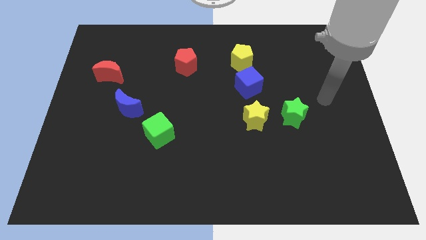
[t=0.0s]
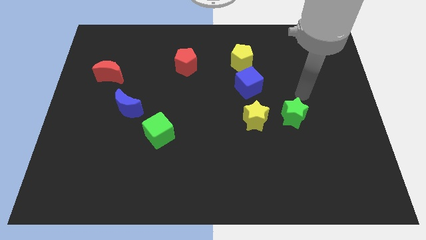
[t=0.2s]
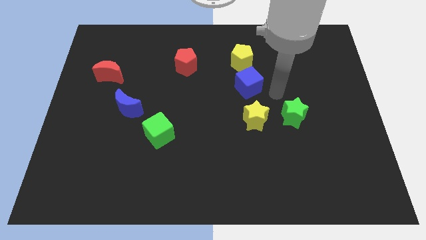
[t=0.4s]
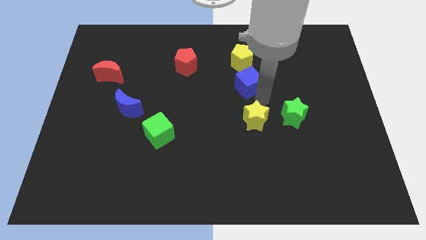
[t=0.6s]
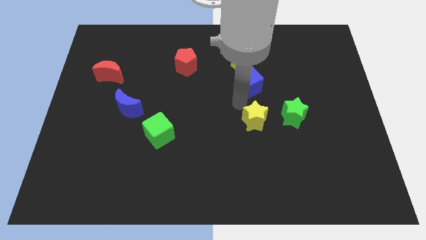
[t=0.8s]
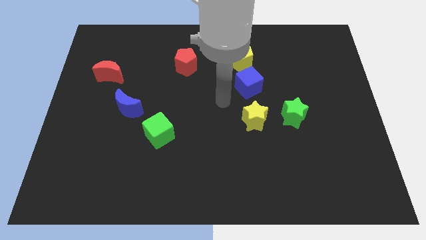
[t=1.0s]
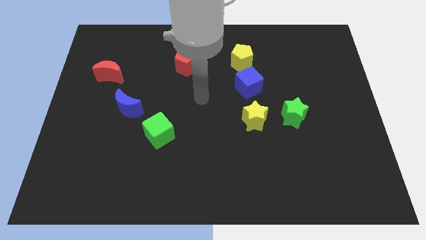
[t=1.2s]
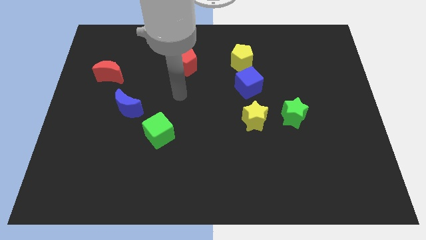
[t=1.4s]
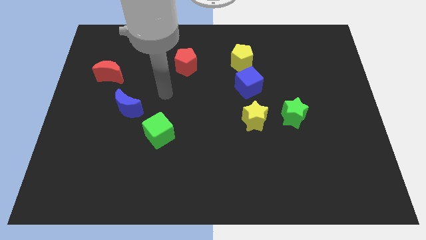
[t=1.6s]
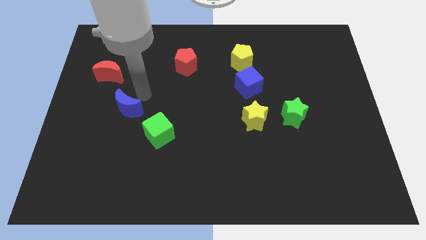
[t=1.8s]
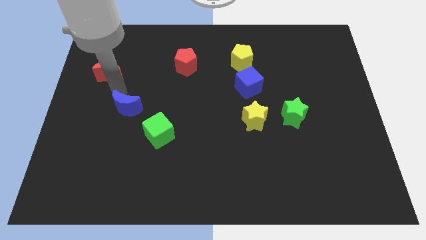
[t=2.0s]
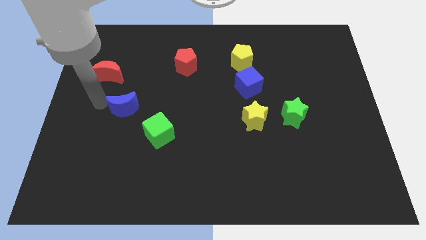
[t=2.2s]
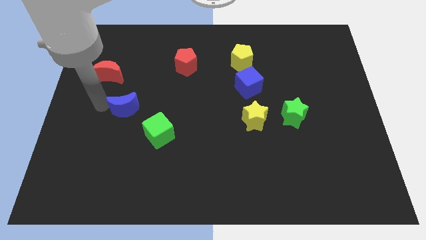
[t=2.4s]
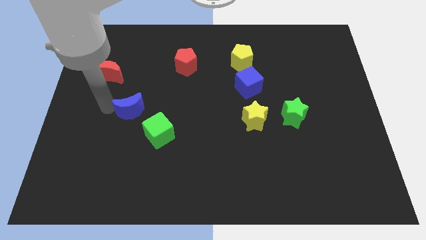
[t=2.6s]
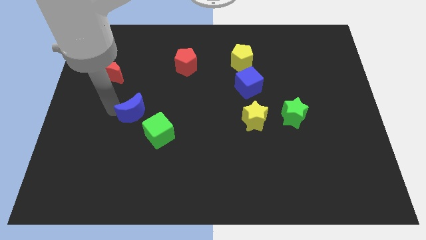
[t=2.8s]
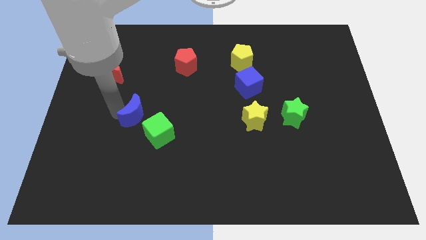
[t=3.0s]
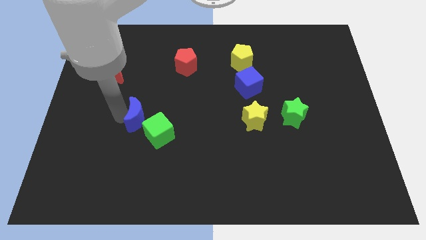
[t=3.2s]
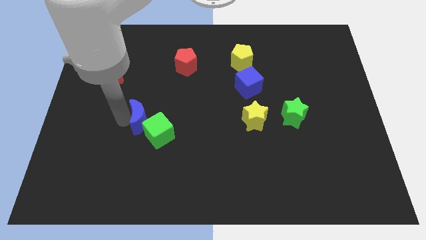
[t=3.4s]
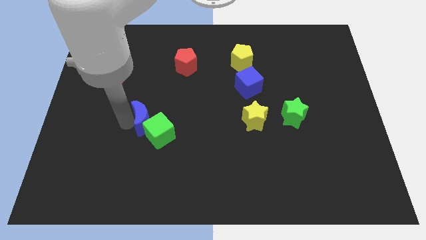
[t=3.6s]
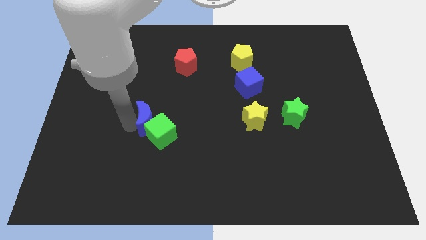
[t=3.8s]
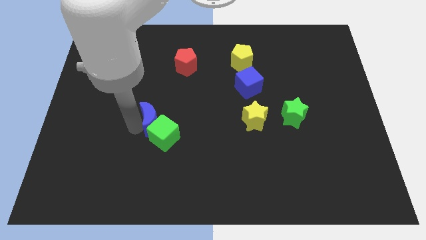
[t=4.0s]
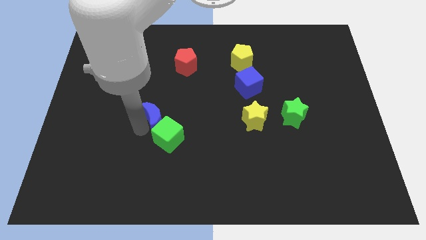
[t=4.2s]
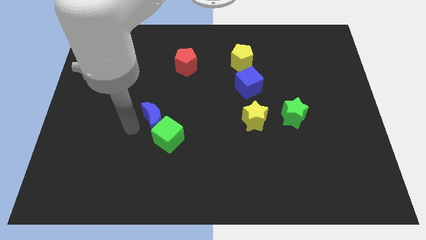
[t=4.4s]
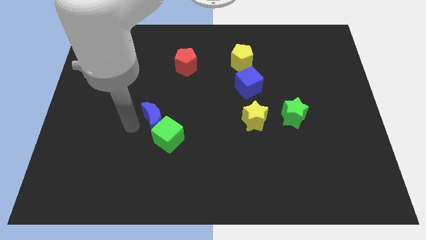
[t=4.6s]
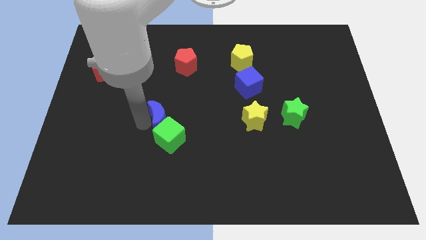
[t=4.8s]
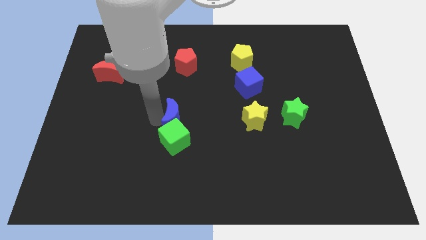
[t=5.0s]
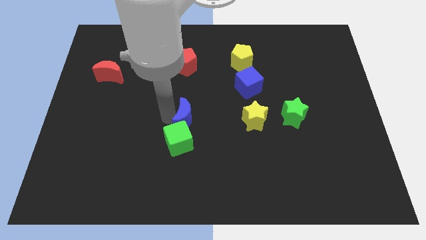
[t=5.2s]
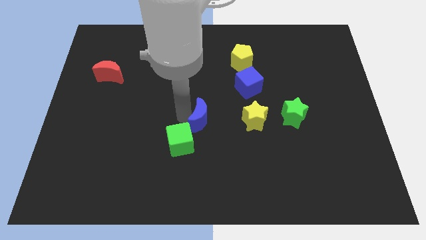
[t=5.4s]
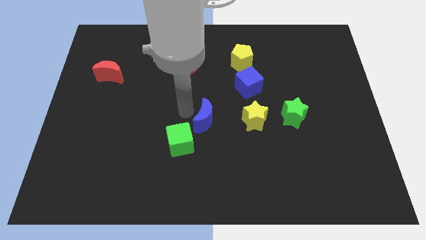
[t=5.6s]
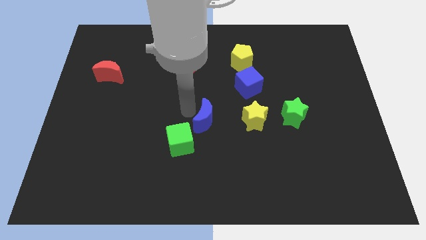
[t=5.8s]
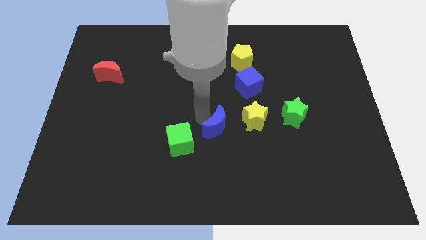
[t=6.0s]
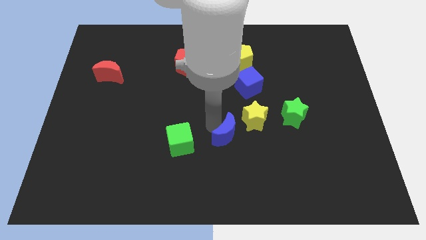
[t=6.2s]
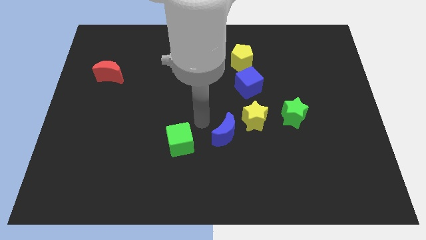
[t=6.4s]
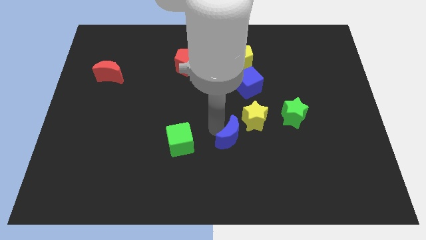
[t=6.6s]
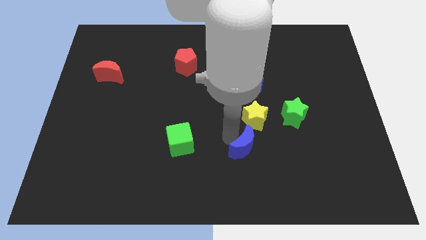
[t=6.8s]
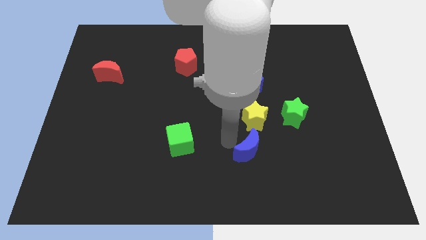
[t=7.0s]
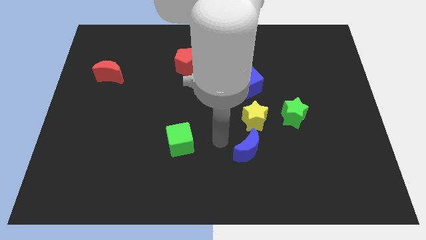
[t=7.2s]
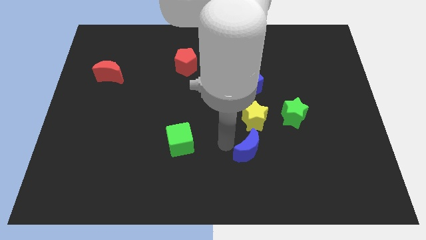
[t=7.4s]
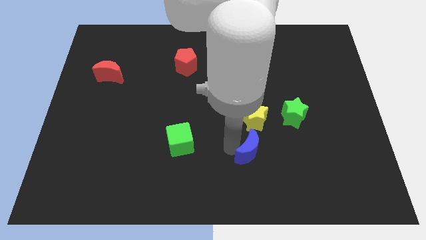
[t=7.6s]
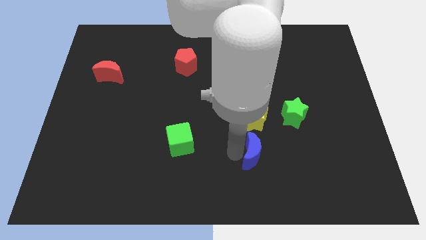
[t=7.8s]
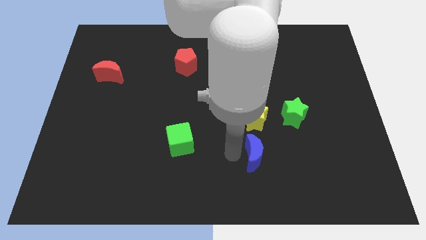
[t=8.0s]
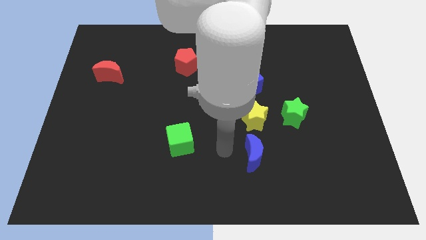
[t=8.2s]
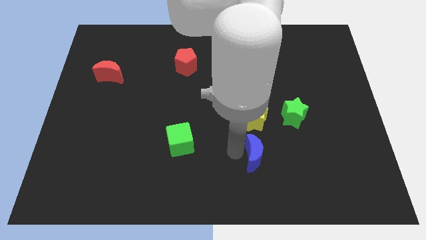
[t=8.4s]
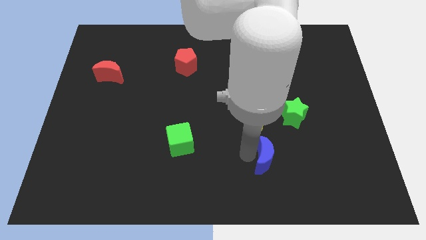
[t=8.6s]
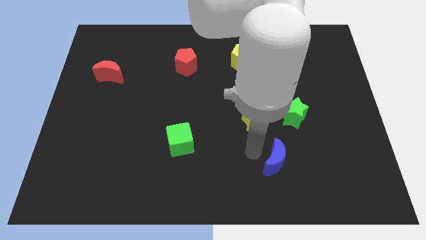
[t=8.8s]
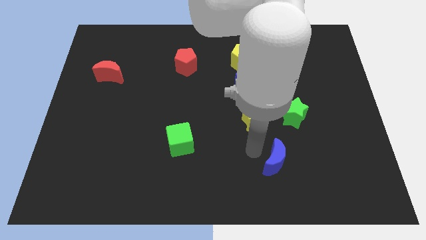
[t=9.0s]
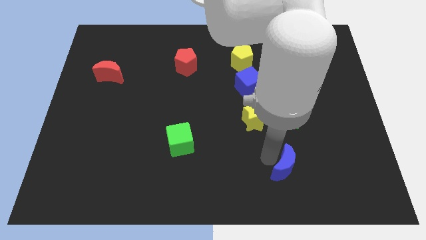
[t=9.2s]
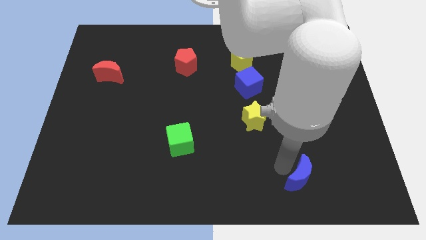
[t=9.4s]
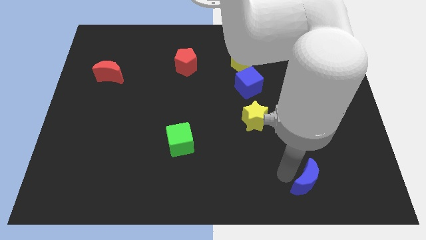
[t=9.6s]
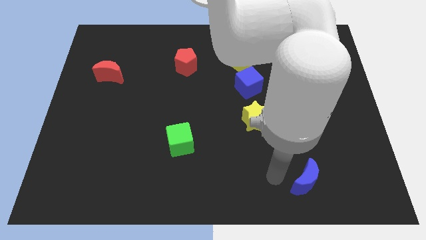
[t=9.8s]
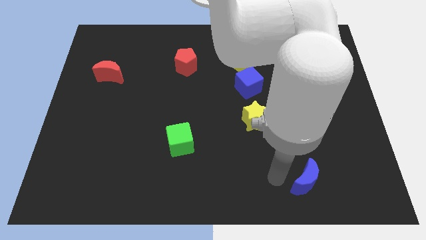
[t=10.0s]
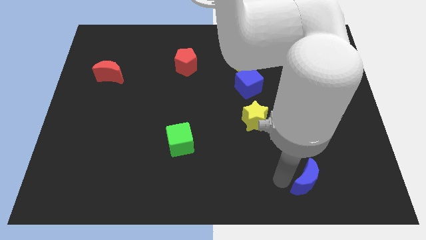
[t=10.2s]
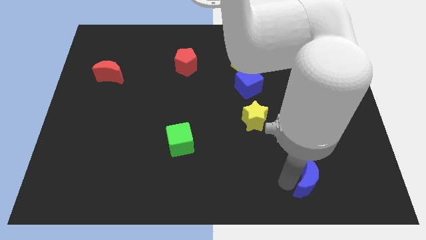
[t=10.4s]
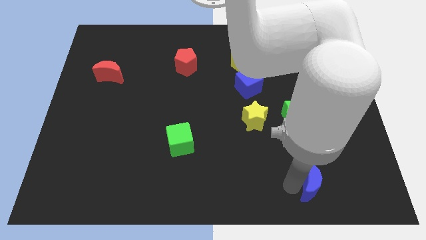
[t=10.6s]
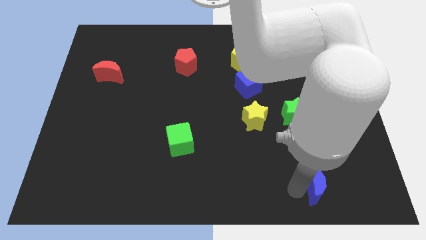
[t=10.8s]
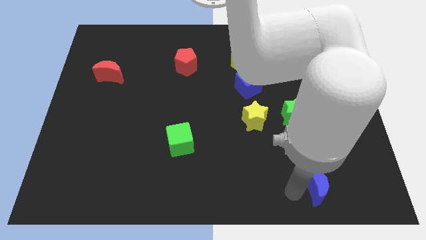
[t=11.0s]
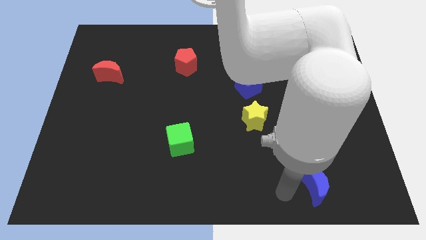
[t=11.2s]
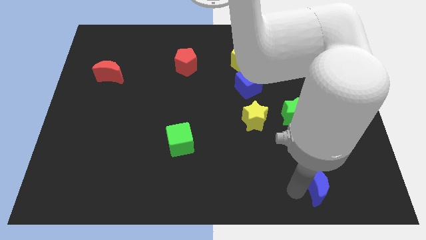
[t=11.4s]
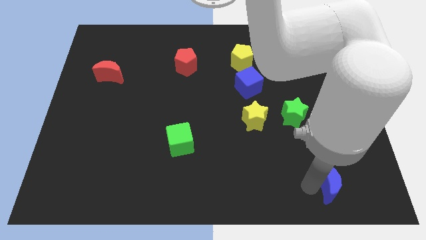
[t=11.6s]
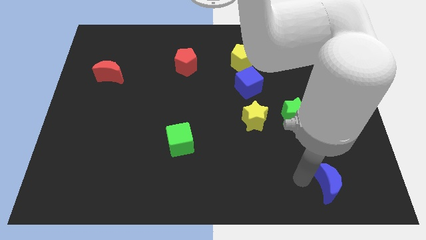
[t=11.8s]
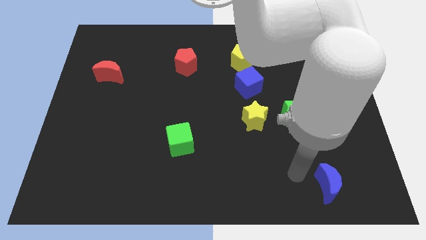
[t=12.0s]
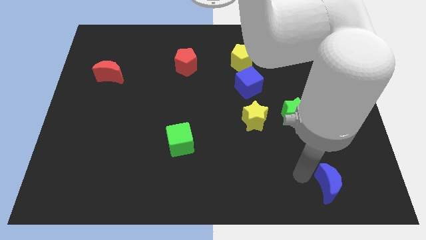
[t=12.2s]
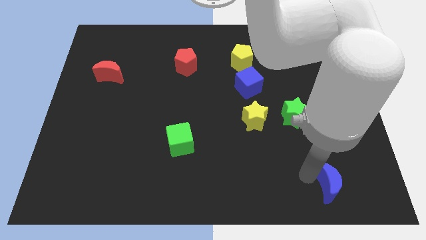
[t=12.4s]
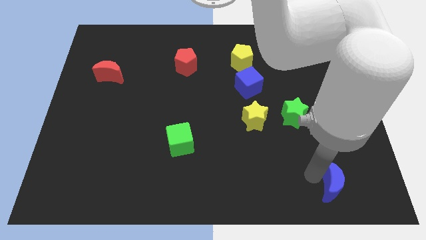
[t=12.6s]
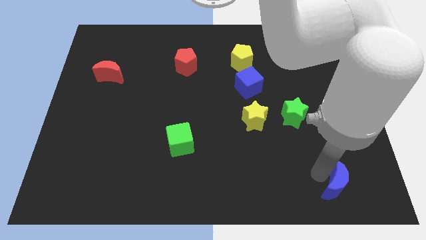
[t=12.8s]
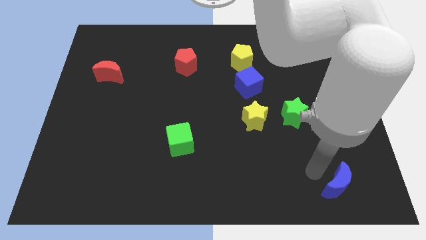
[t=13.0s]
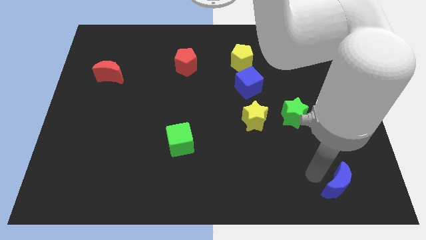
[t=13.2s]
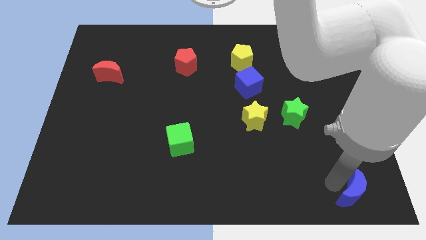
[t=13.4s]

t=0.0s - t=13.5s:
put the blue moon to the lower right corner
